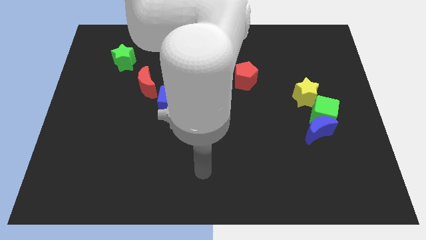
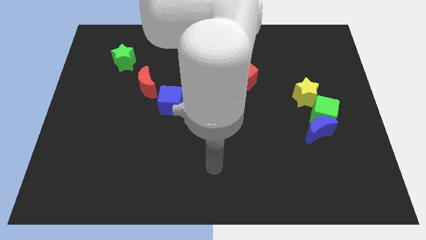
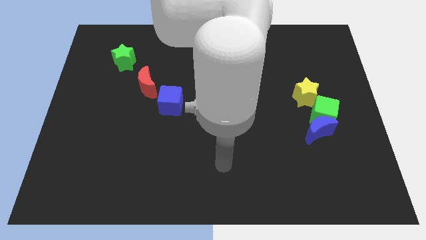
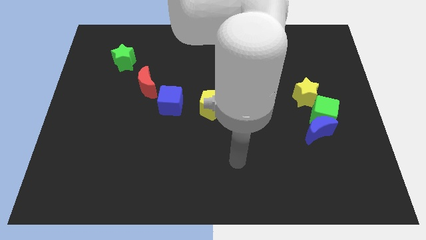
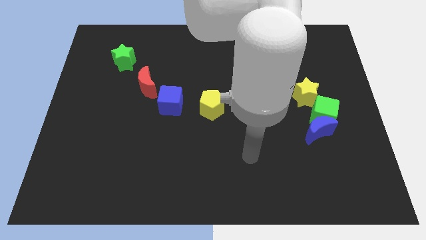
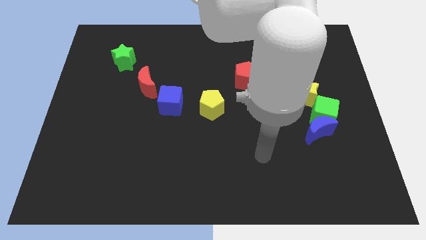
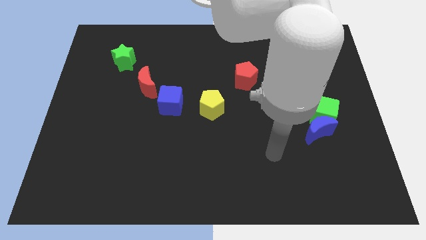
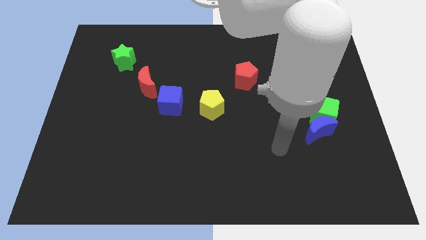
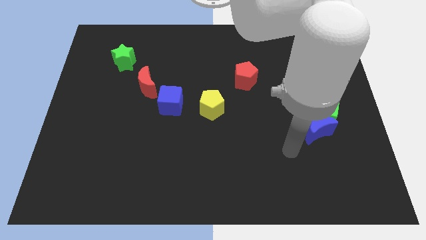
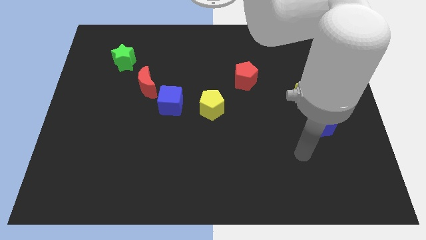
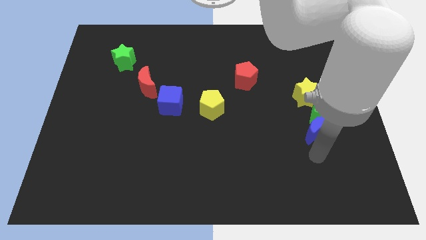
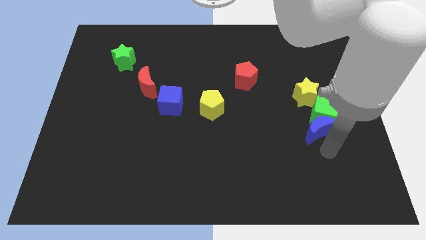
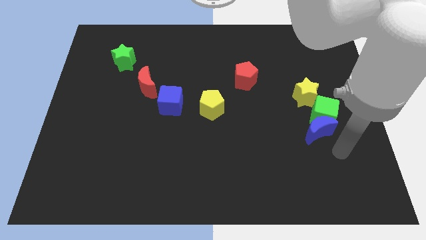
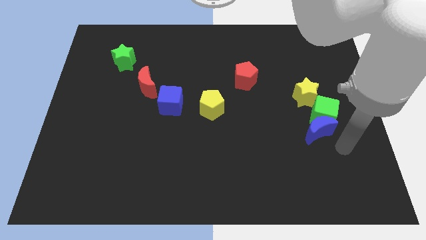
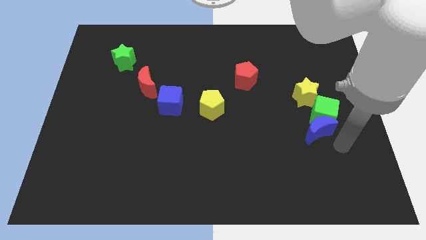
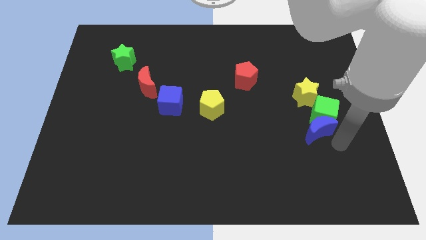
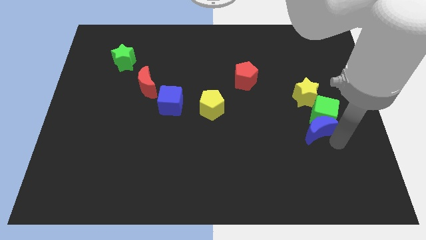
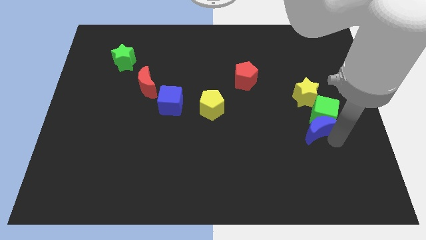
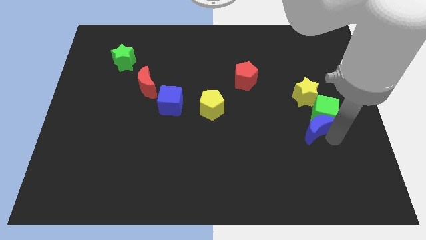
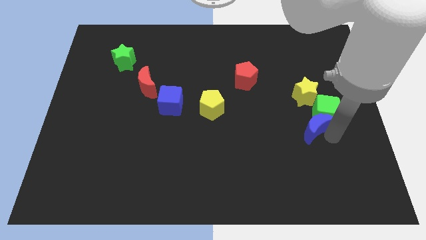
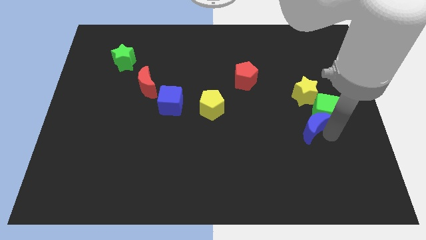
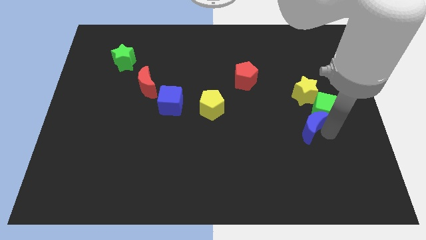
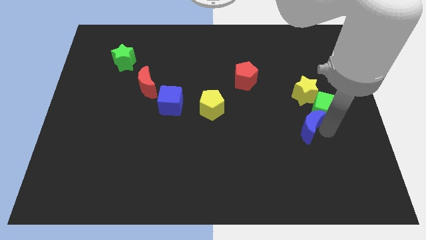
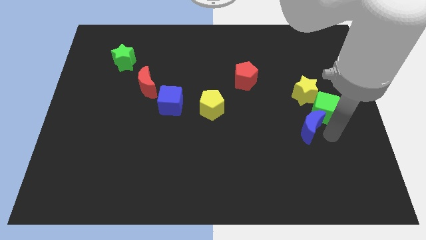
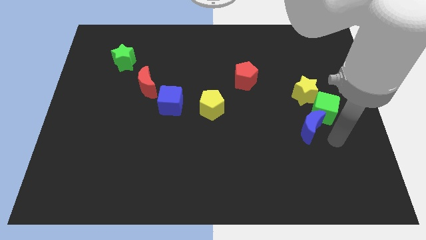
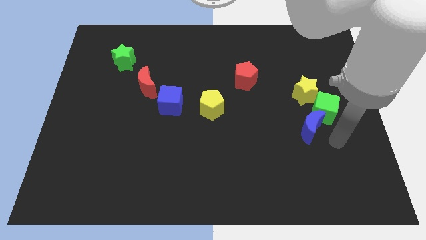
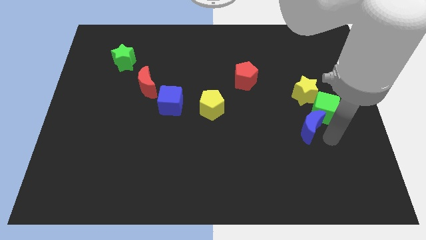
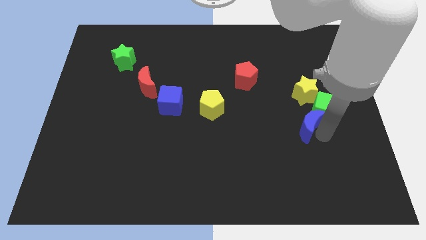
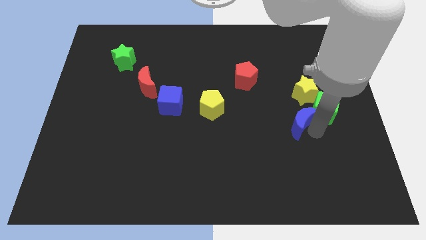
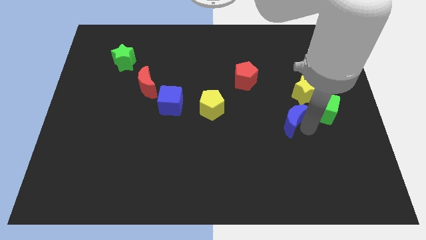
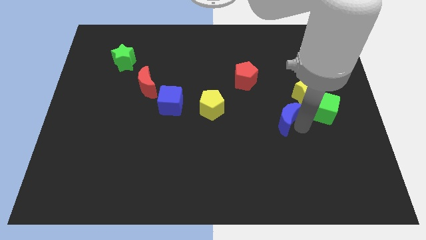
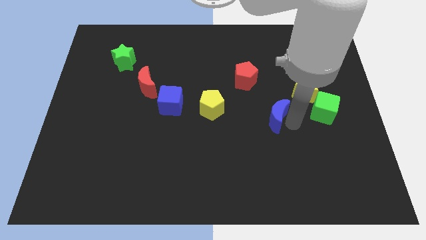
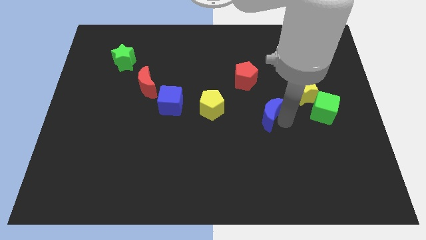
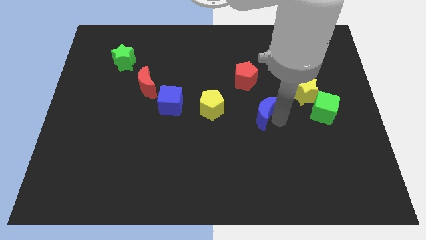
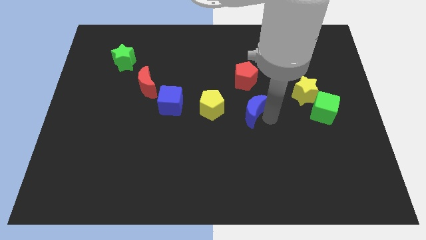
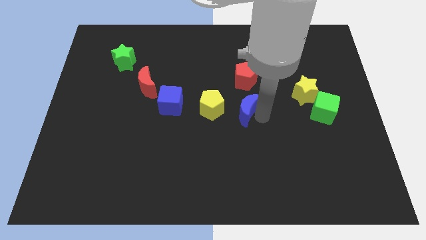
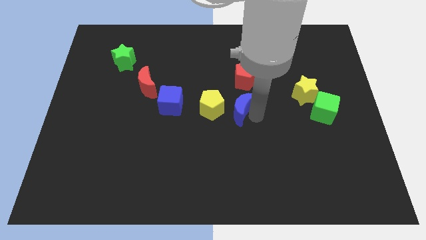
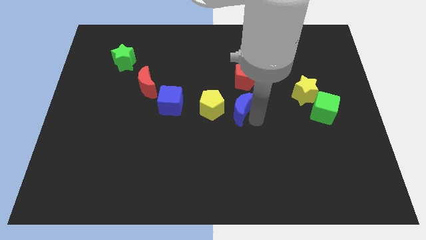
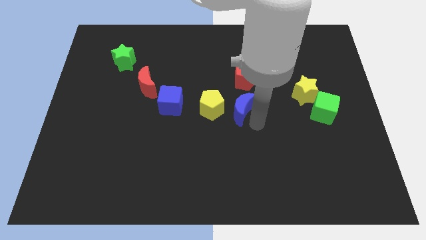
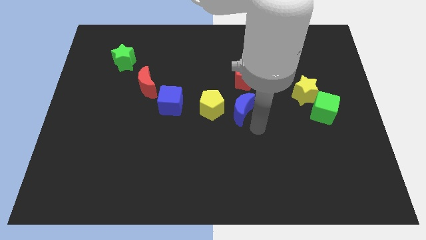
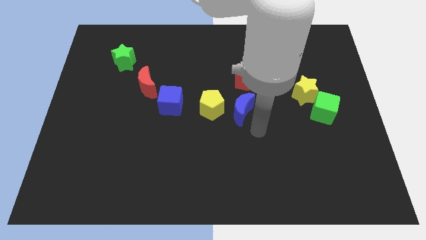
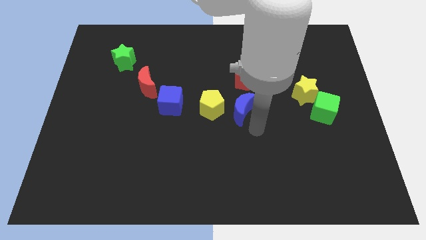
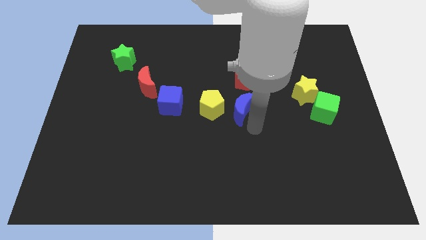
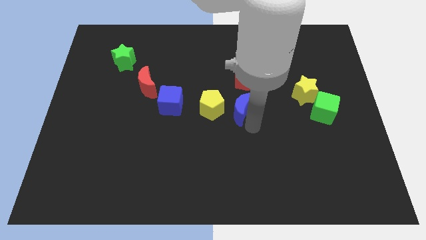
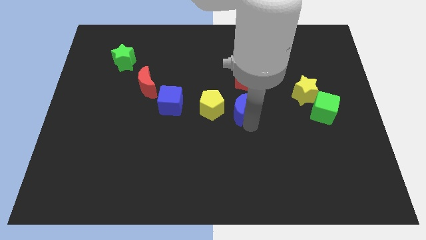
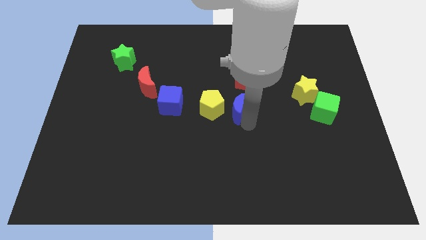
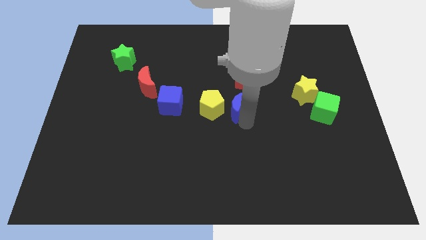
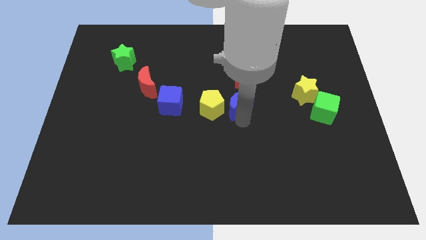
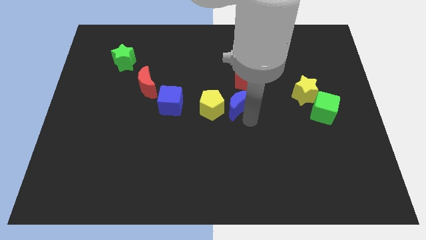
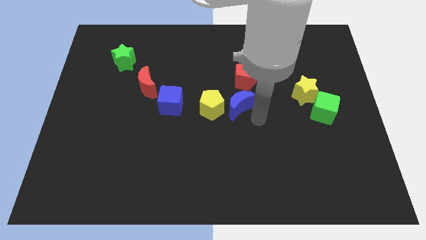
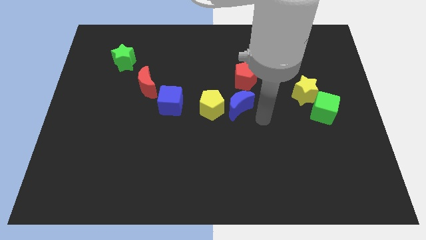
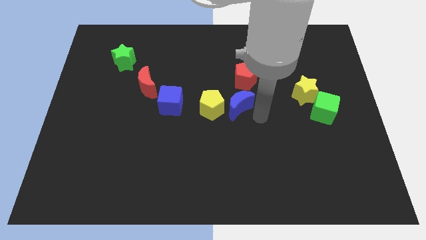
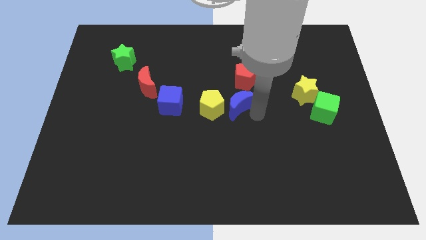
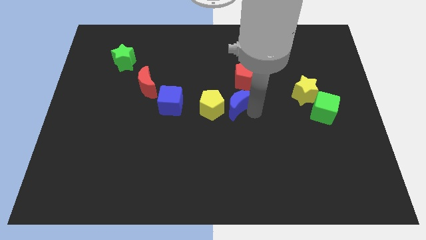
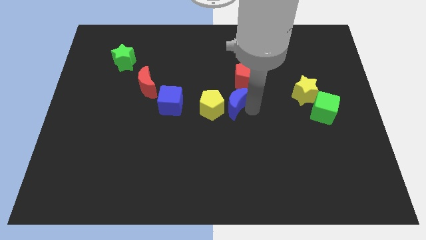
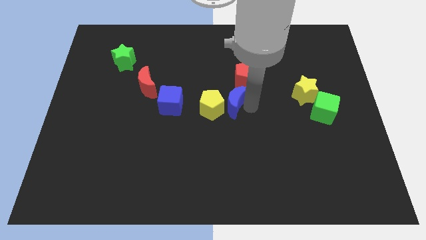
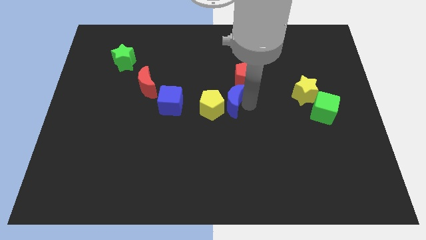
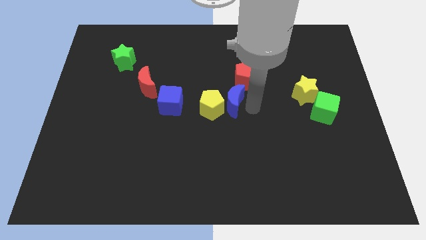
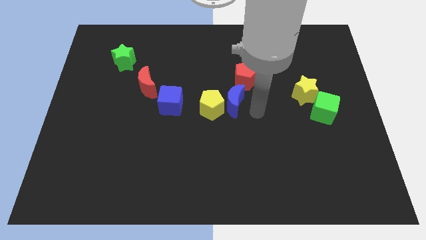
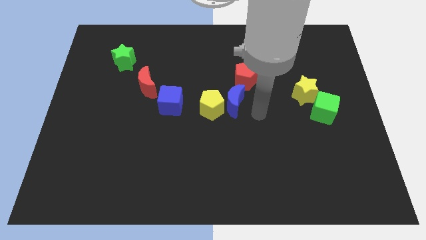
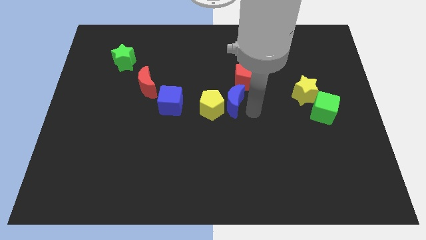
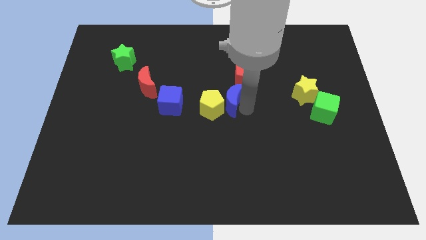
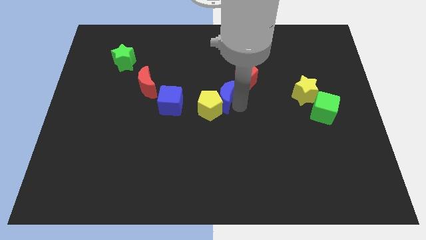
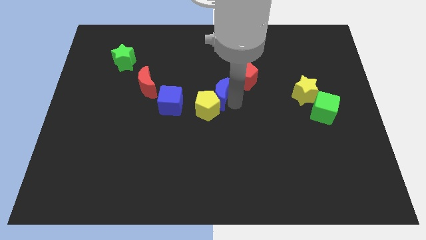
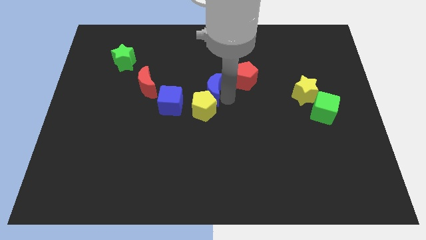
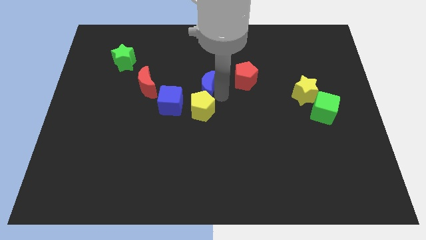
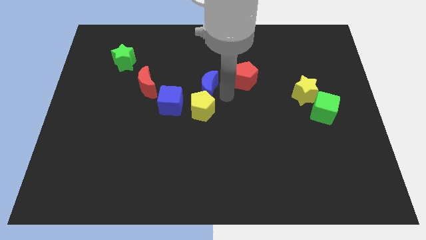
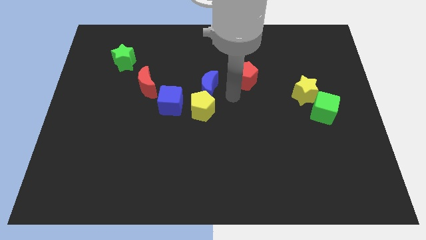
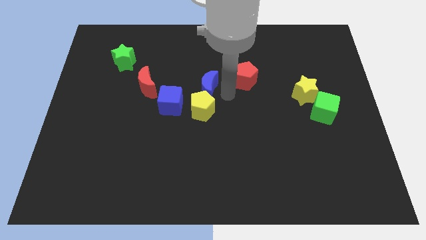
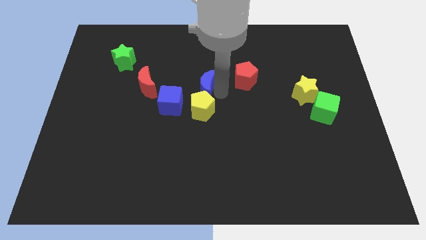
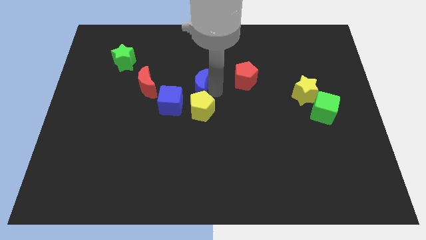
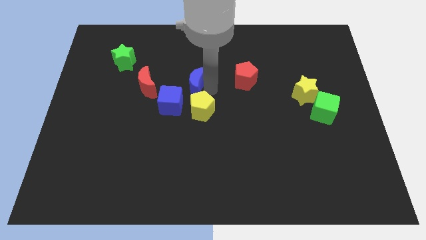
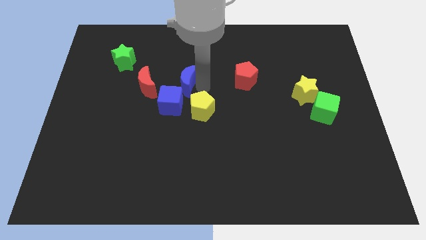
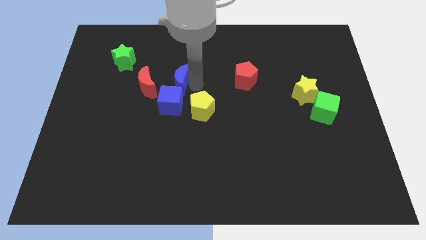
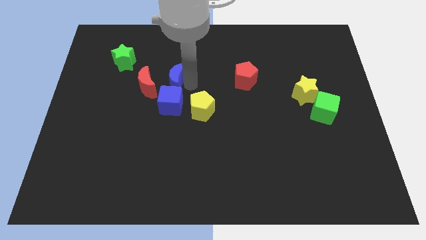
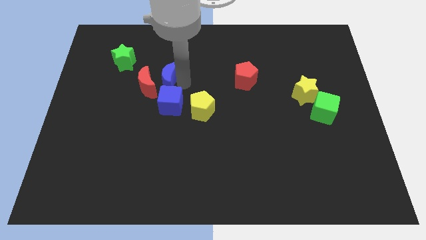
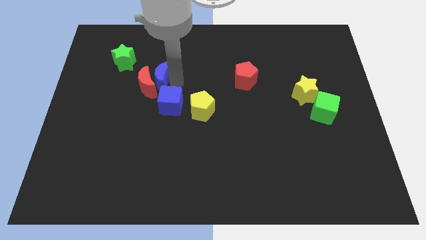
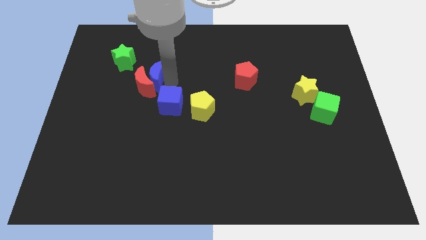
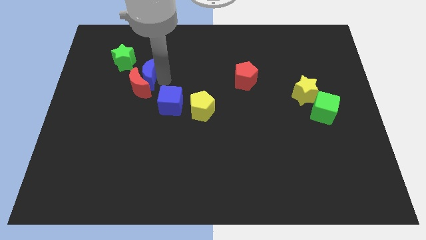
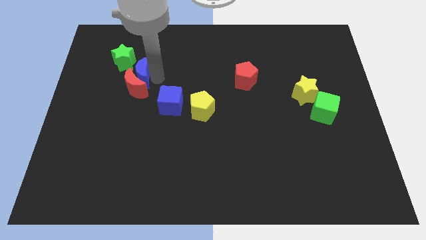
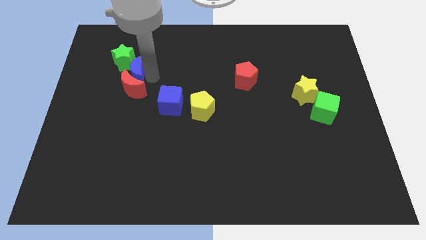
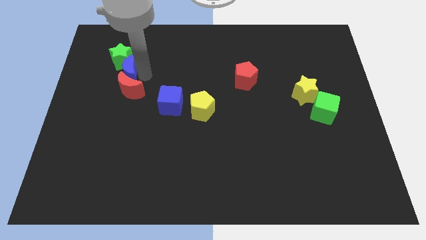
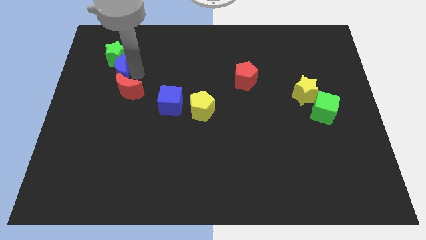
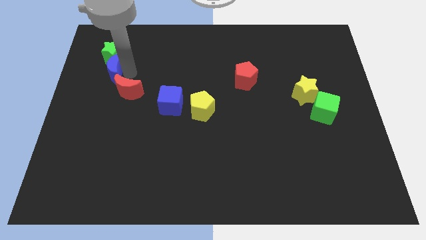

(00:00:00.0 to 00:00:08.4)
put the blue moon to the bottom left of the green star
